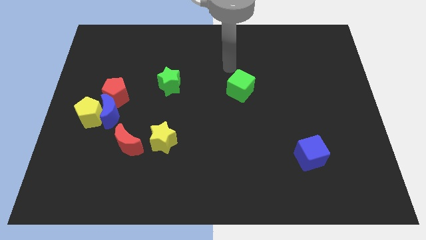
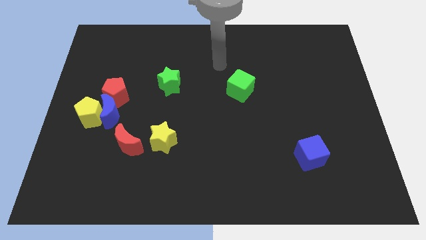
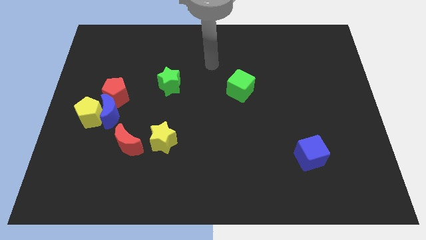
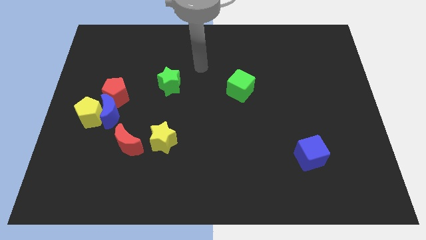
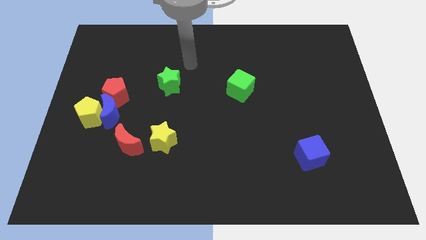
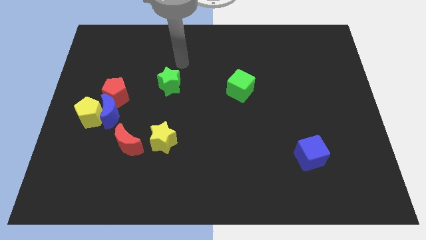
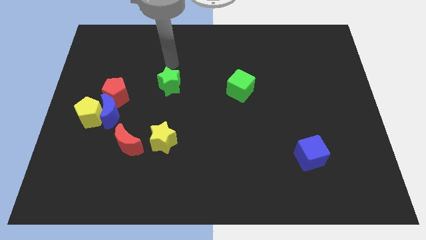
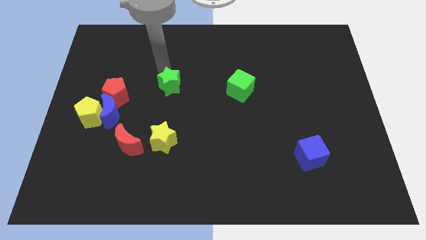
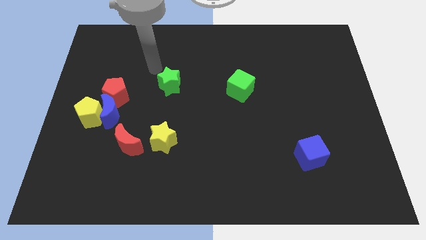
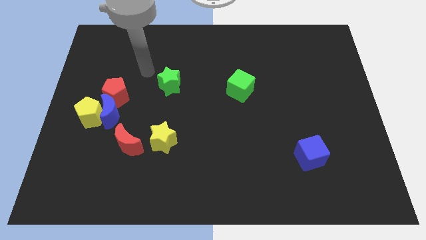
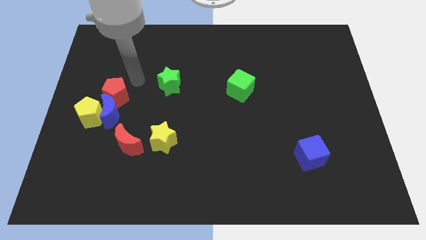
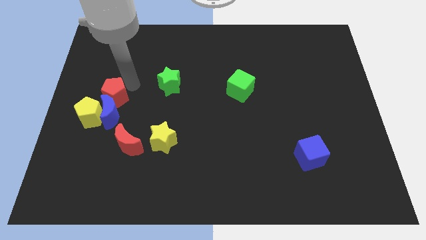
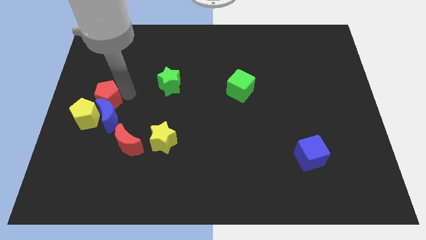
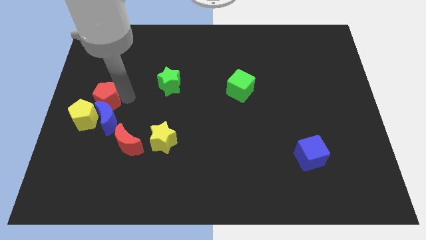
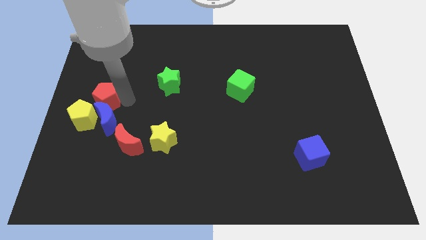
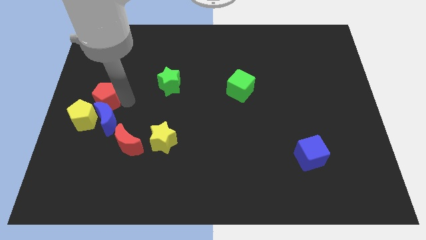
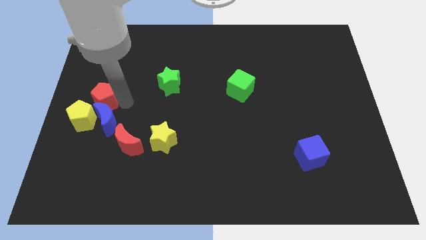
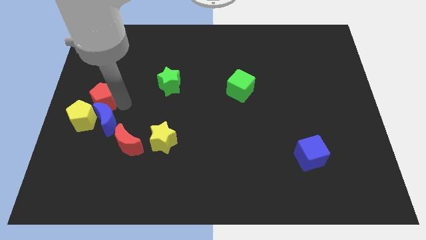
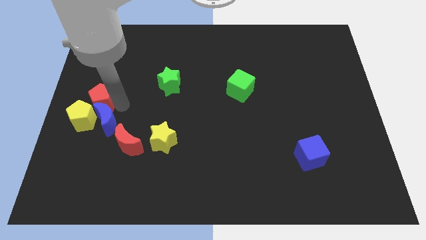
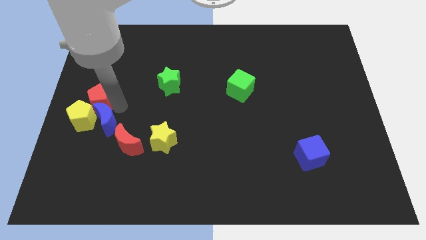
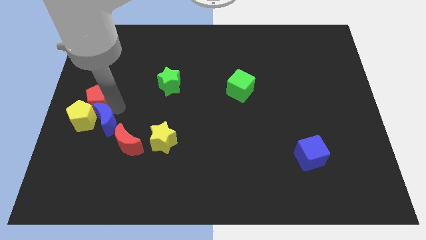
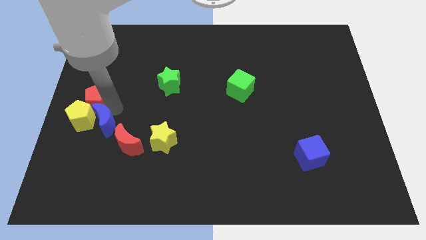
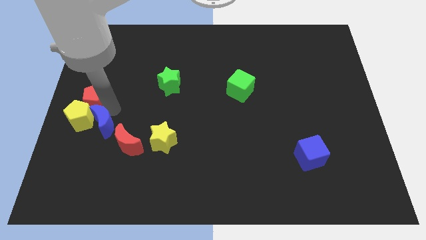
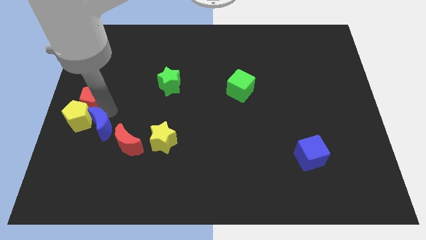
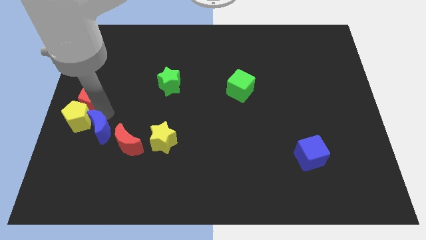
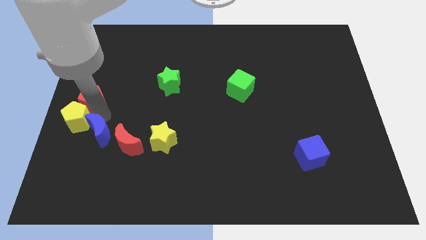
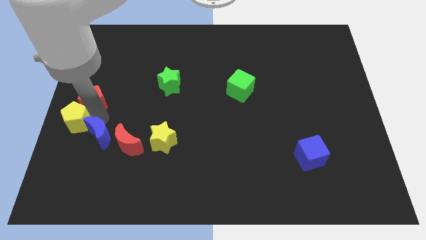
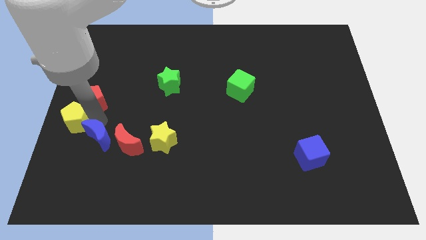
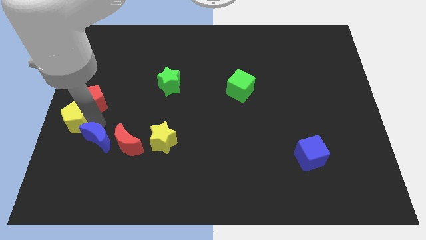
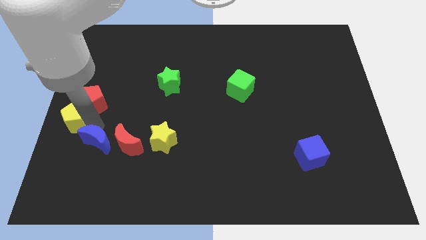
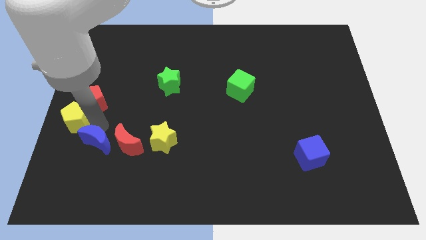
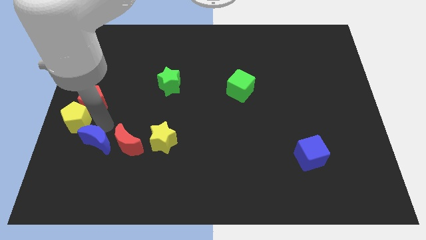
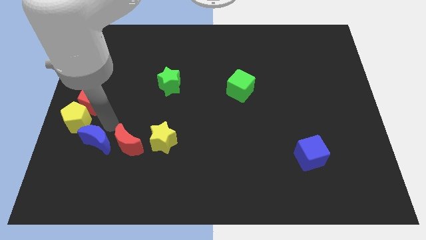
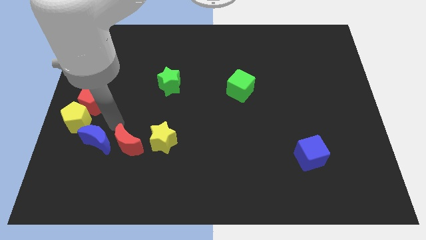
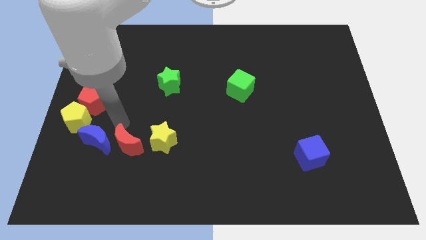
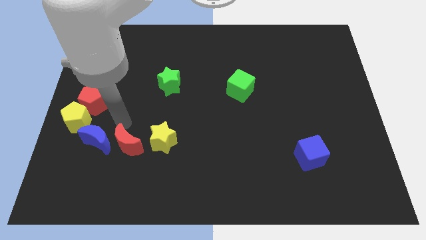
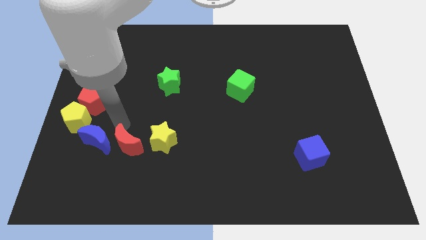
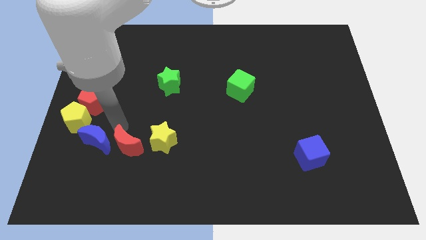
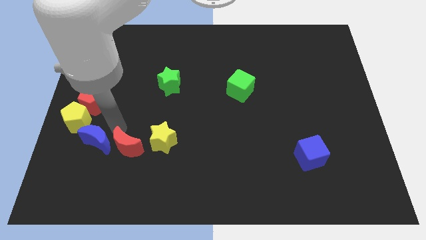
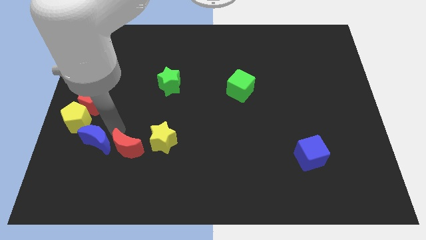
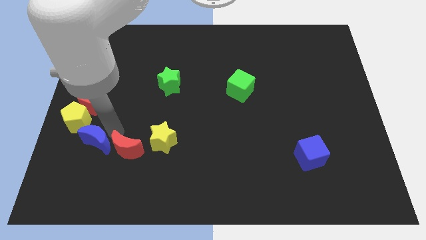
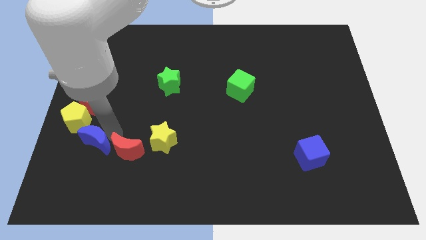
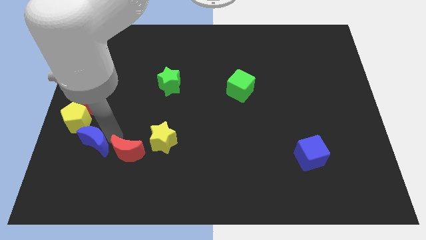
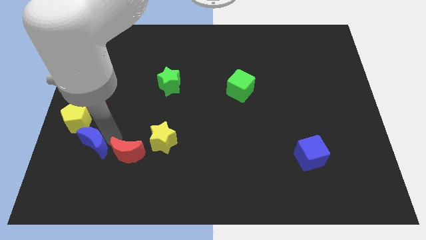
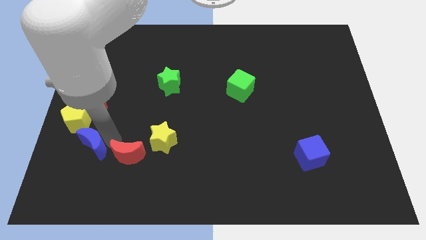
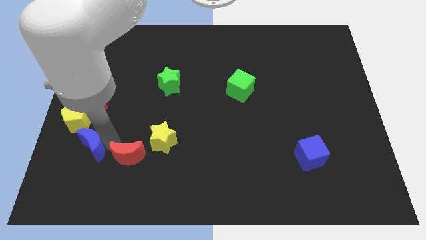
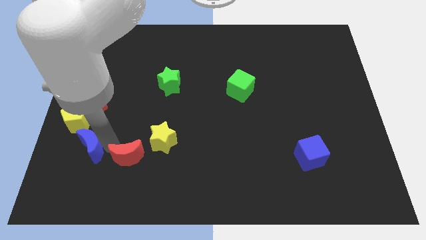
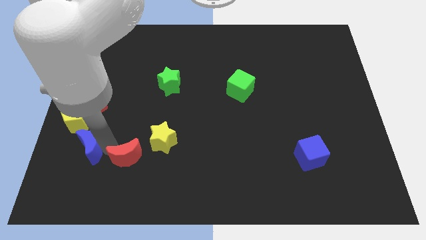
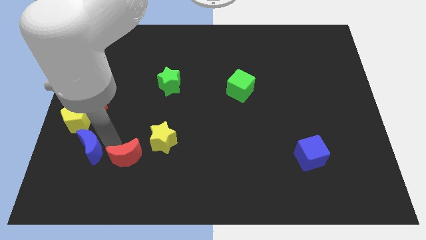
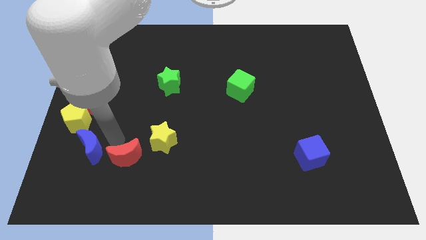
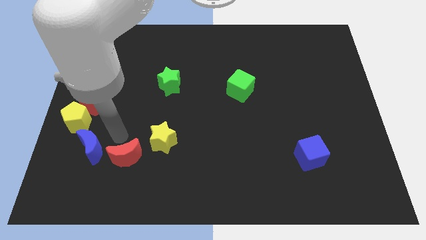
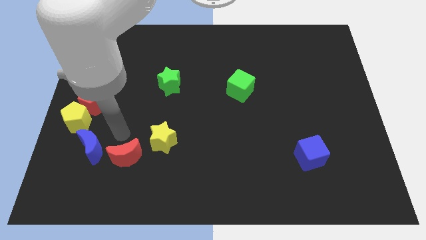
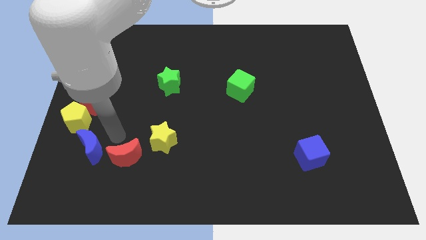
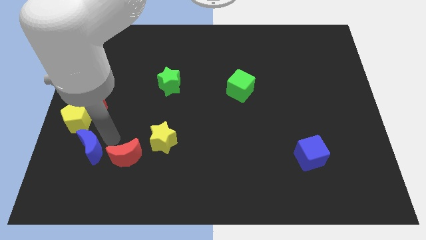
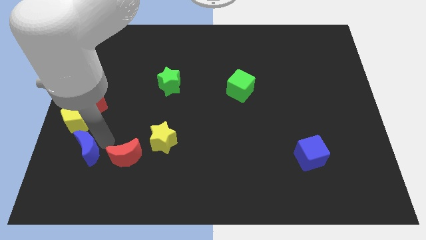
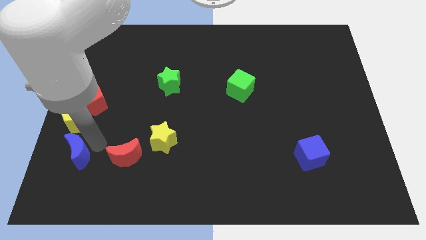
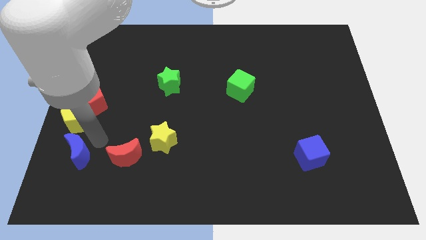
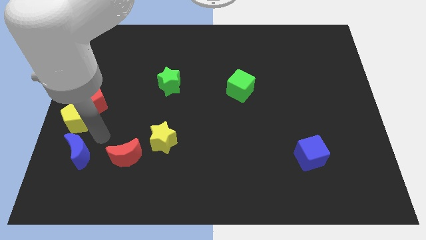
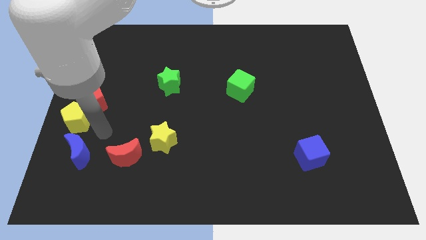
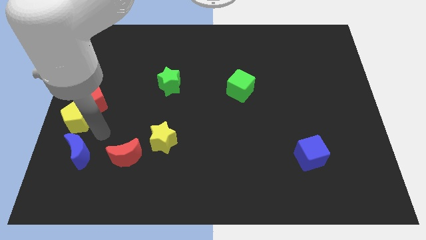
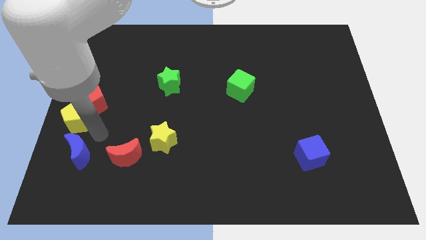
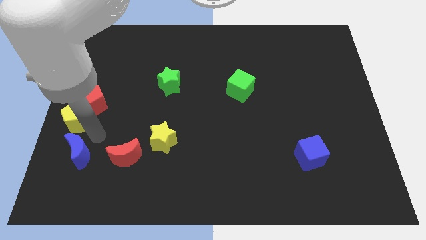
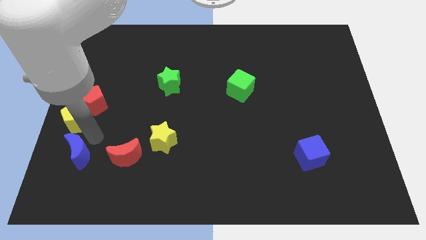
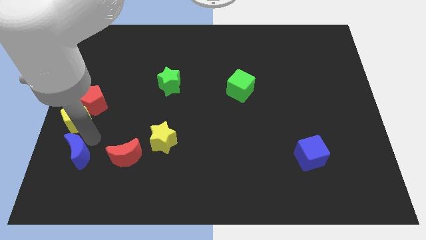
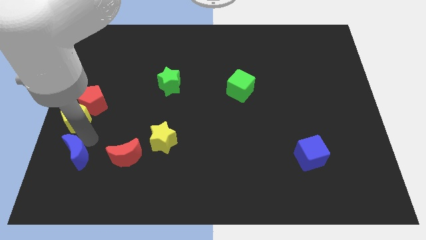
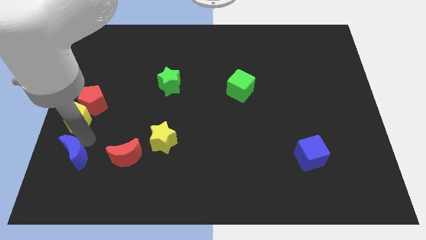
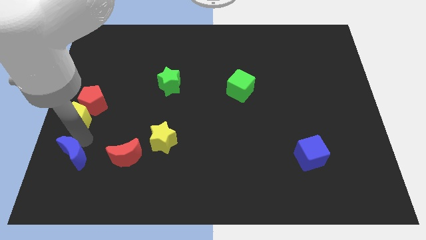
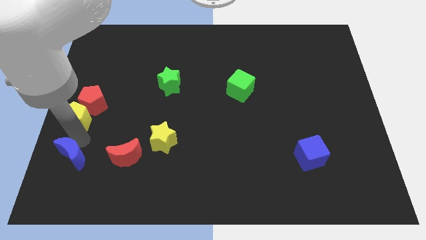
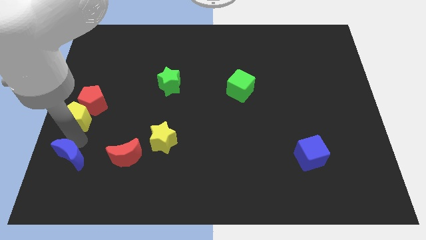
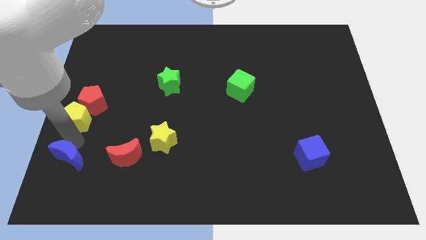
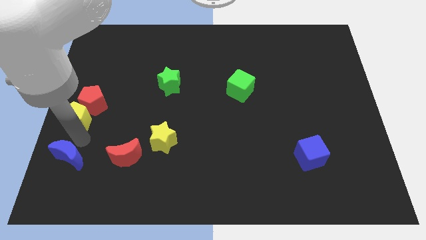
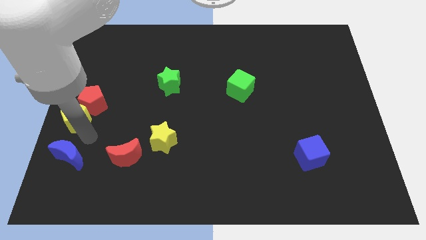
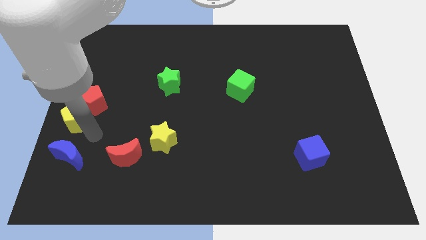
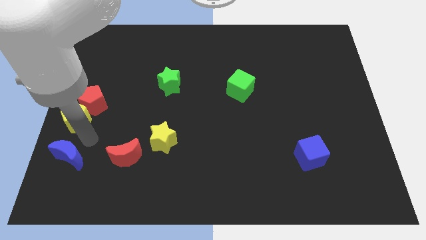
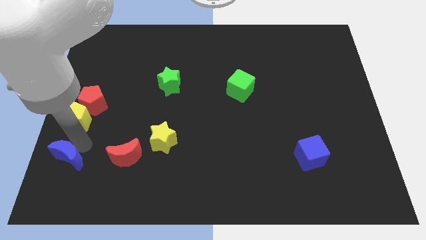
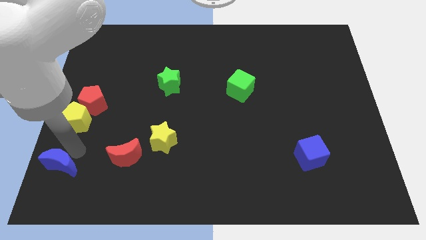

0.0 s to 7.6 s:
slide the blue moon to the bottom left of the board
